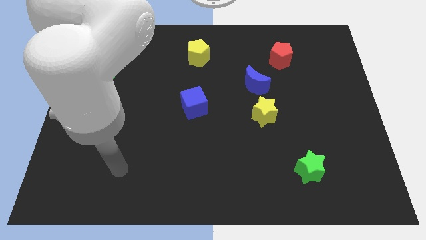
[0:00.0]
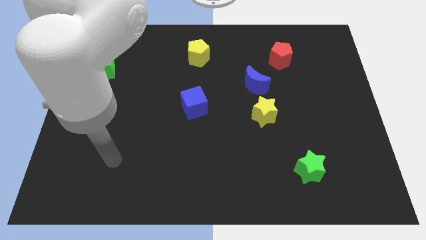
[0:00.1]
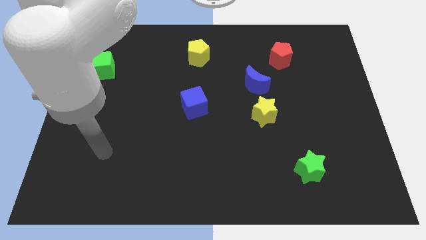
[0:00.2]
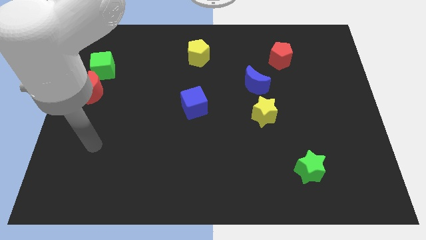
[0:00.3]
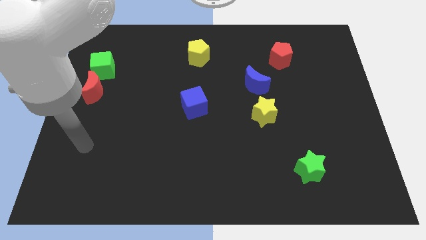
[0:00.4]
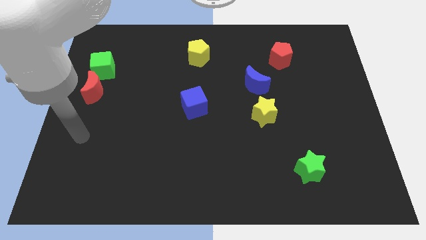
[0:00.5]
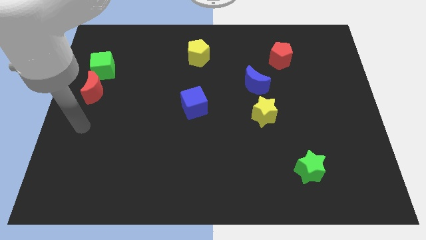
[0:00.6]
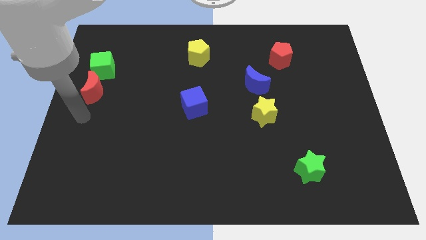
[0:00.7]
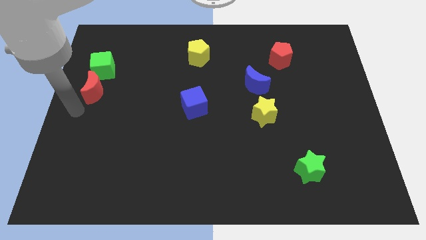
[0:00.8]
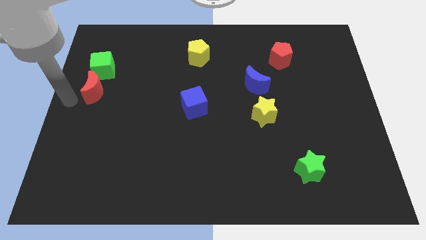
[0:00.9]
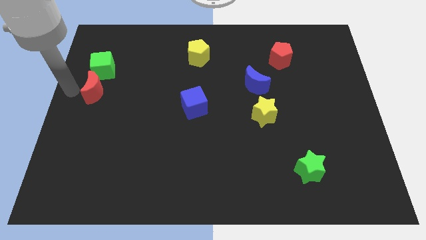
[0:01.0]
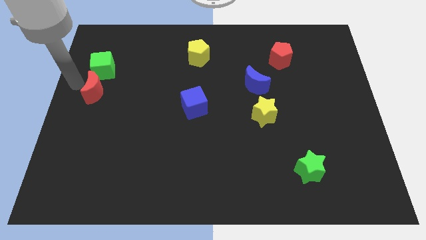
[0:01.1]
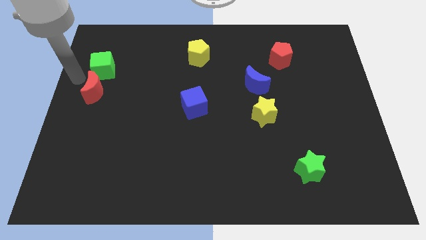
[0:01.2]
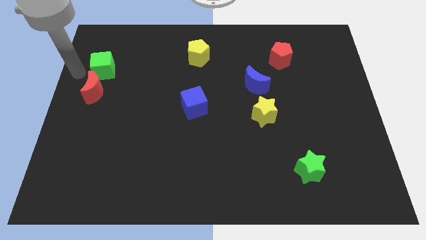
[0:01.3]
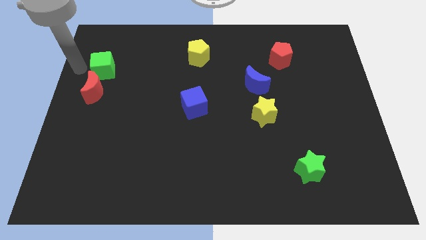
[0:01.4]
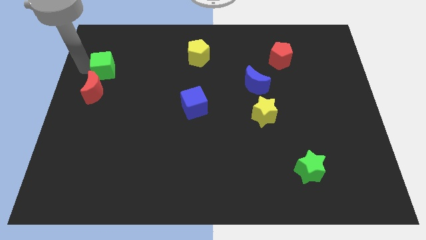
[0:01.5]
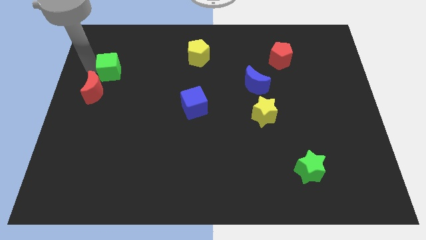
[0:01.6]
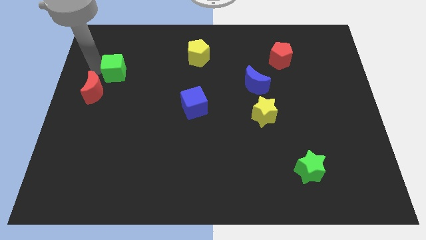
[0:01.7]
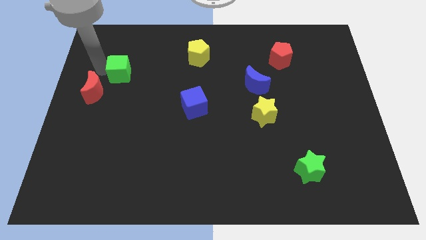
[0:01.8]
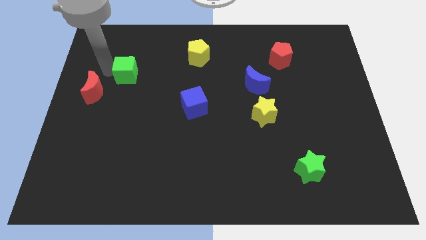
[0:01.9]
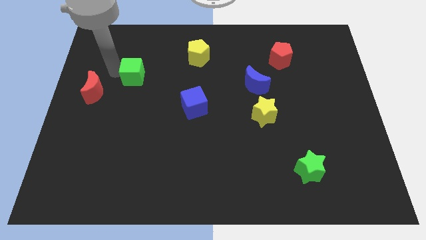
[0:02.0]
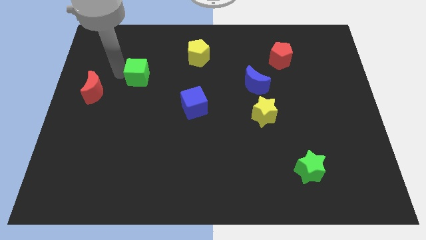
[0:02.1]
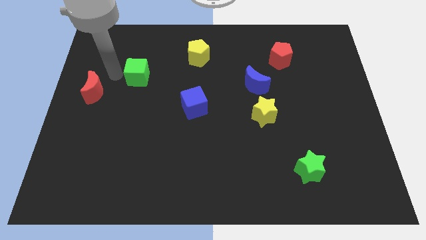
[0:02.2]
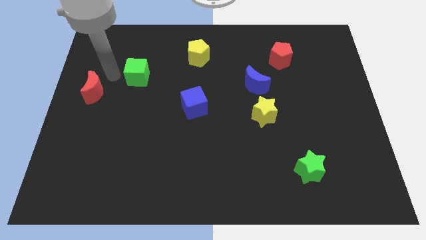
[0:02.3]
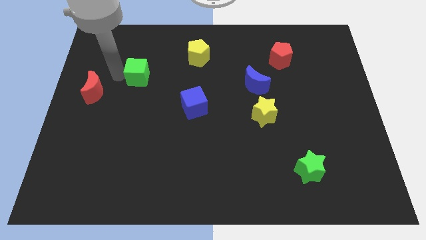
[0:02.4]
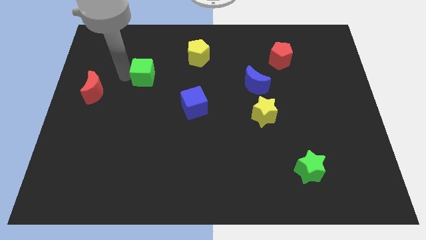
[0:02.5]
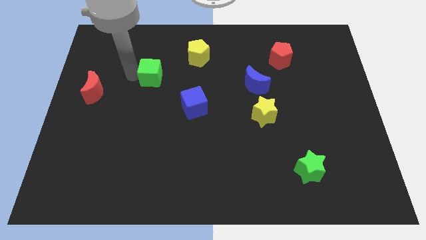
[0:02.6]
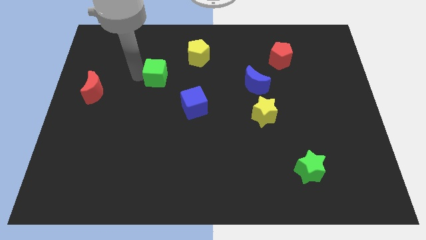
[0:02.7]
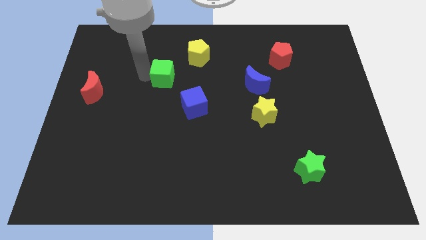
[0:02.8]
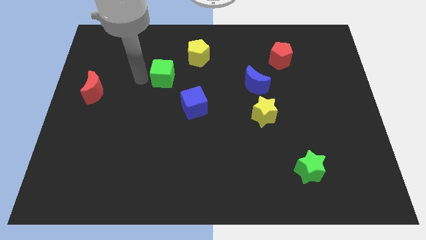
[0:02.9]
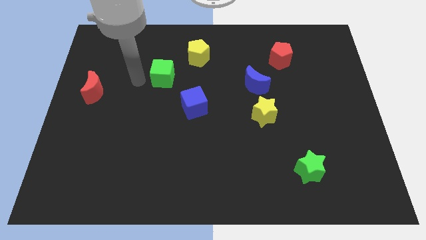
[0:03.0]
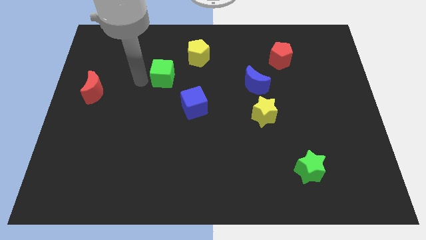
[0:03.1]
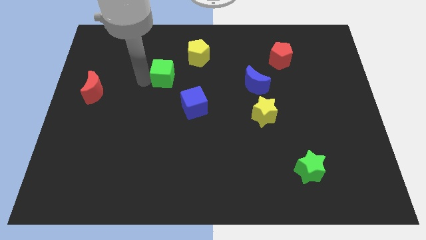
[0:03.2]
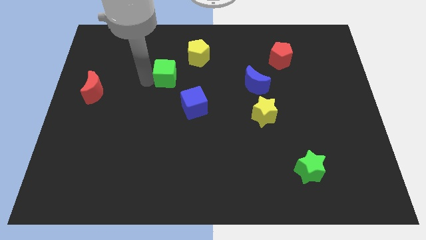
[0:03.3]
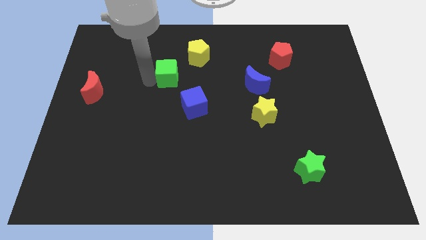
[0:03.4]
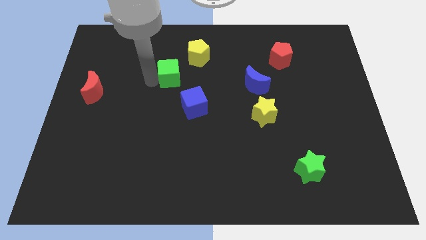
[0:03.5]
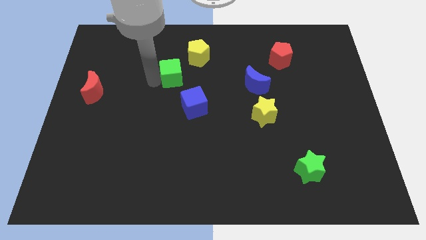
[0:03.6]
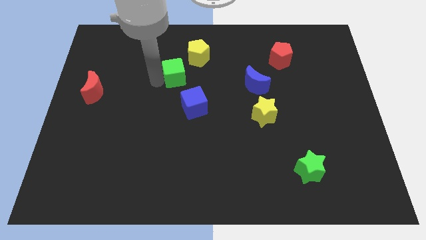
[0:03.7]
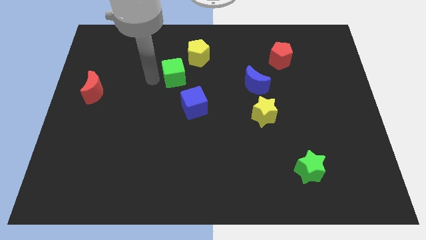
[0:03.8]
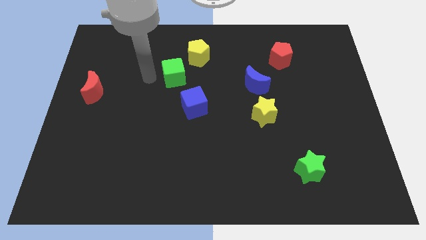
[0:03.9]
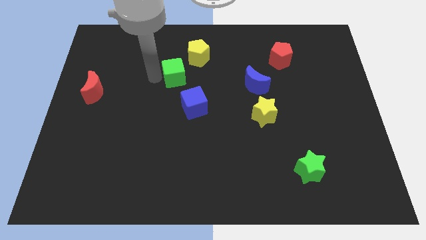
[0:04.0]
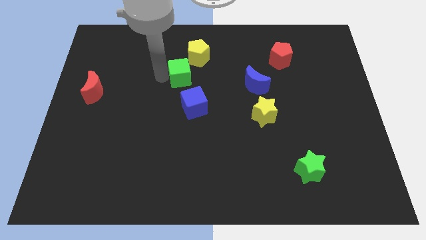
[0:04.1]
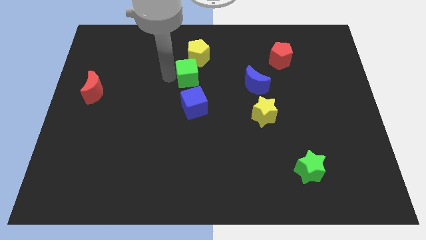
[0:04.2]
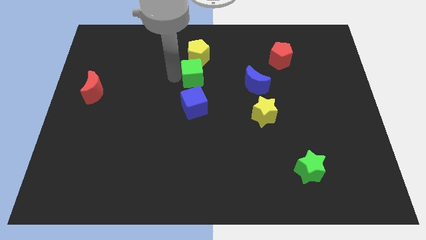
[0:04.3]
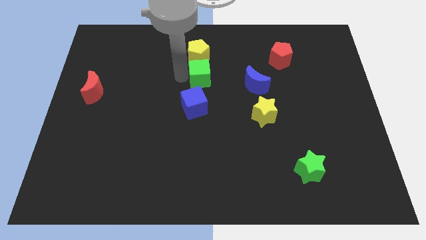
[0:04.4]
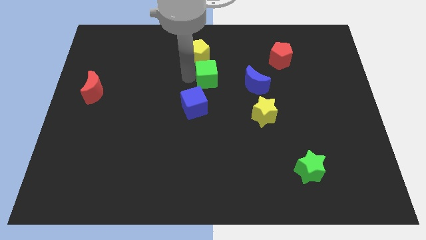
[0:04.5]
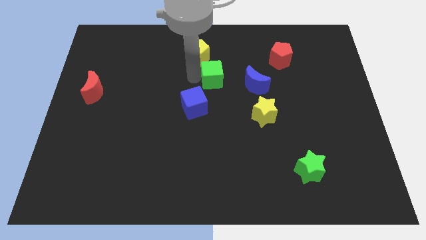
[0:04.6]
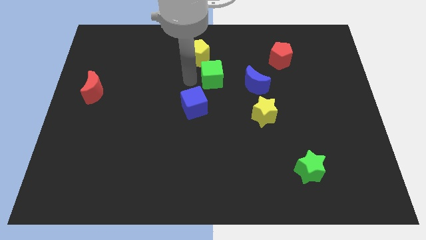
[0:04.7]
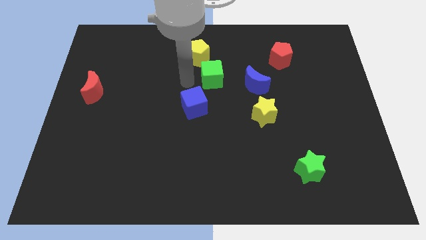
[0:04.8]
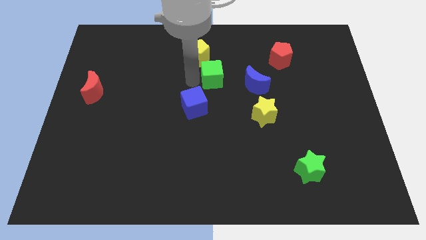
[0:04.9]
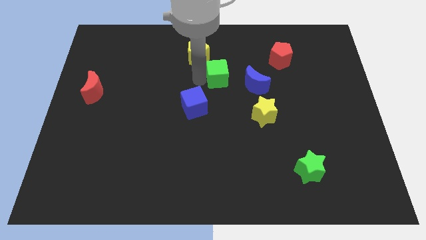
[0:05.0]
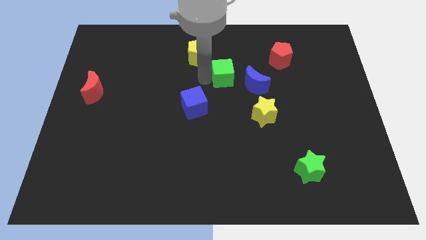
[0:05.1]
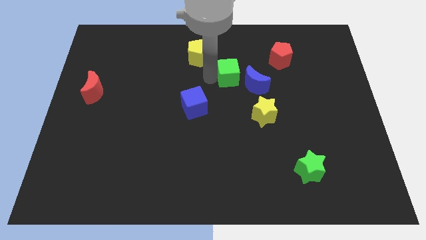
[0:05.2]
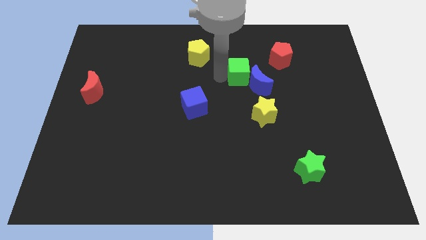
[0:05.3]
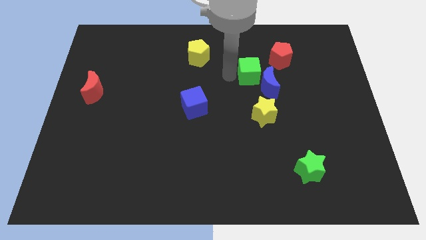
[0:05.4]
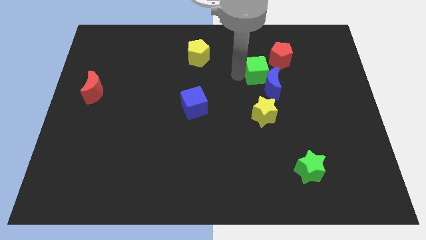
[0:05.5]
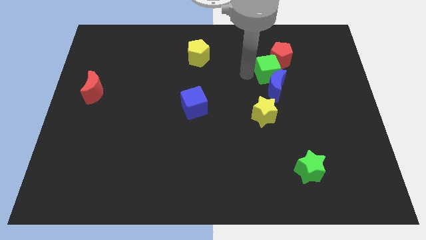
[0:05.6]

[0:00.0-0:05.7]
slide the green cube to the top right side of the blue moon

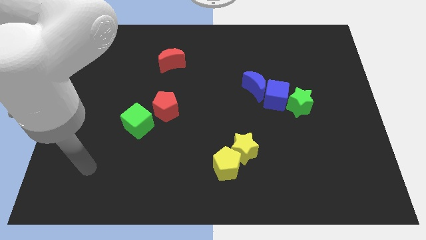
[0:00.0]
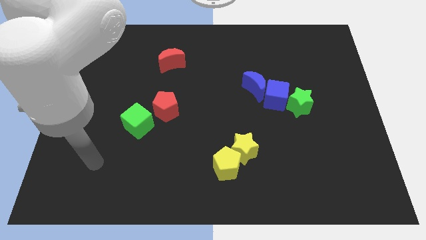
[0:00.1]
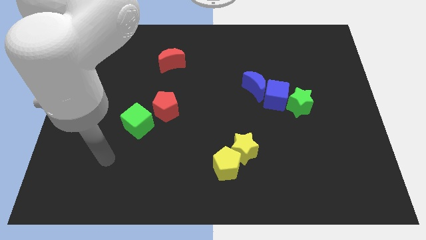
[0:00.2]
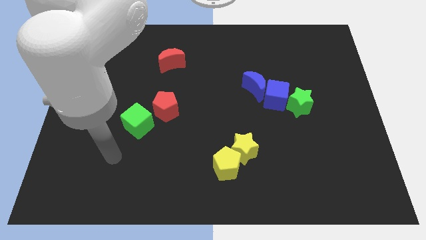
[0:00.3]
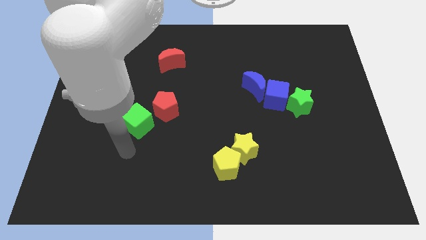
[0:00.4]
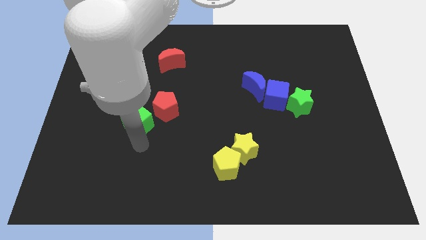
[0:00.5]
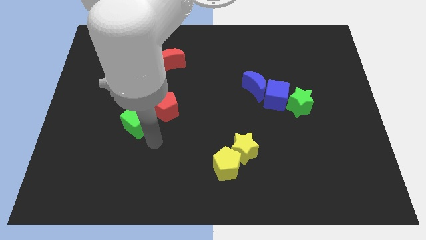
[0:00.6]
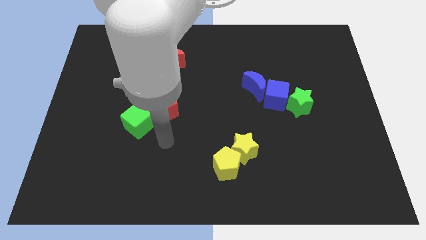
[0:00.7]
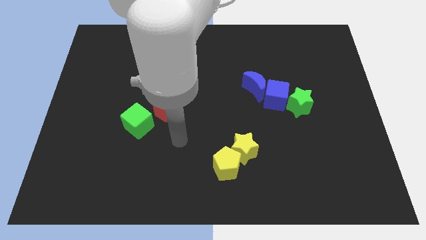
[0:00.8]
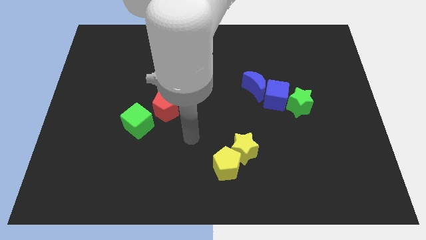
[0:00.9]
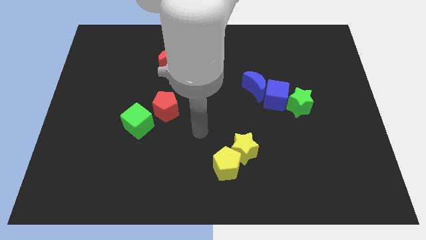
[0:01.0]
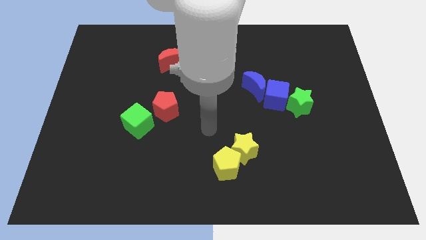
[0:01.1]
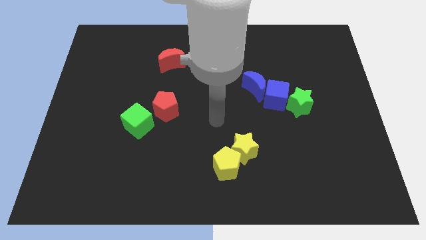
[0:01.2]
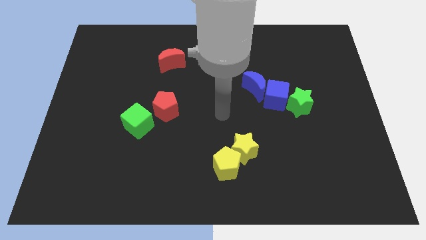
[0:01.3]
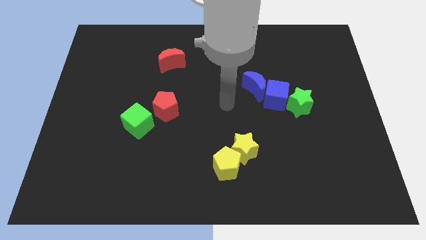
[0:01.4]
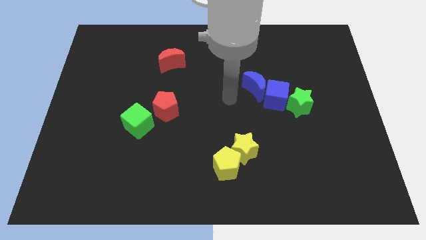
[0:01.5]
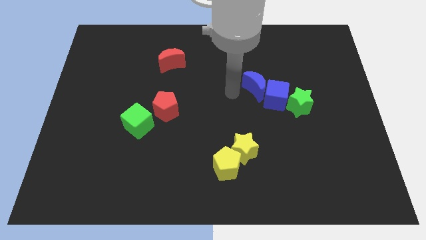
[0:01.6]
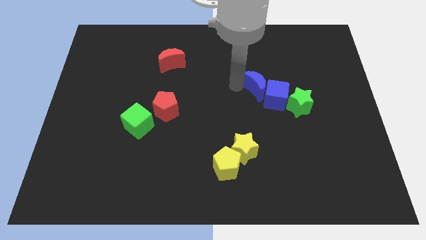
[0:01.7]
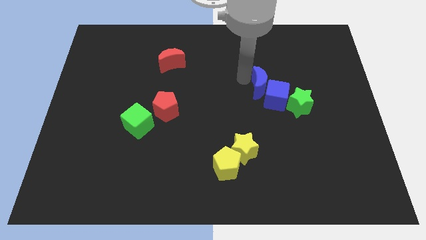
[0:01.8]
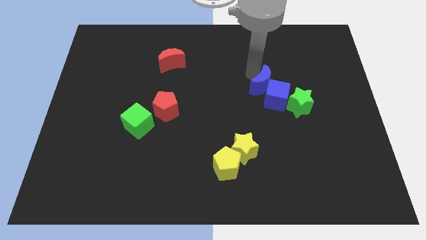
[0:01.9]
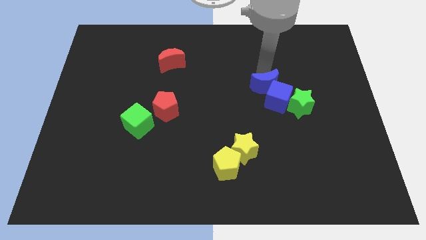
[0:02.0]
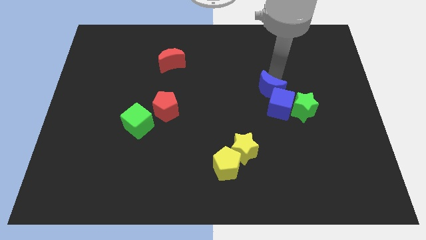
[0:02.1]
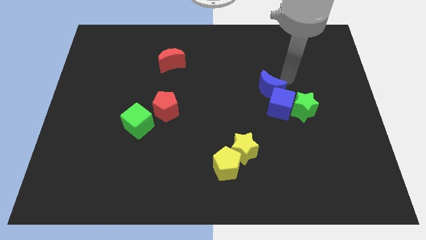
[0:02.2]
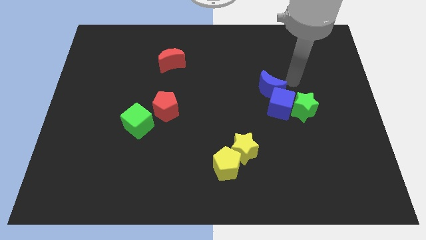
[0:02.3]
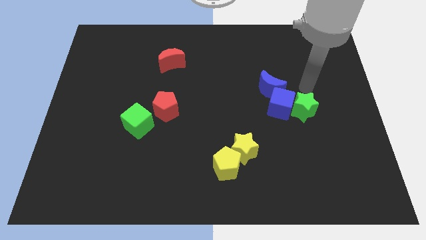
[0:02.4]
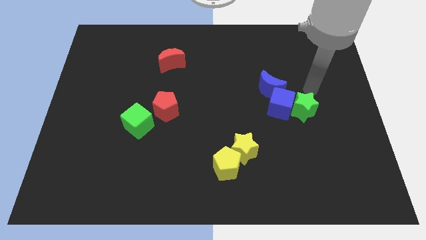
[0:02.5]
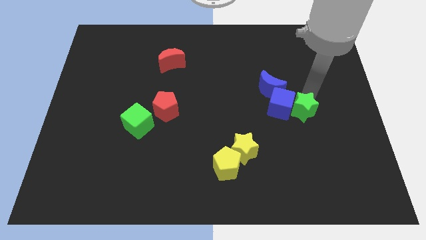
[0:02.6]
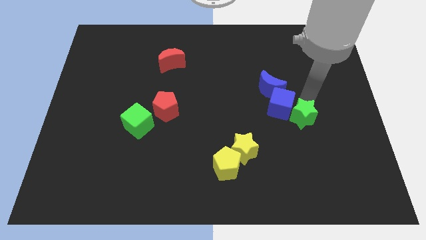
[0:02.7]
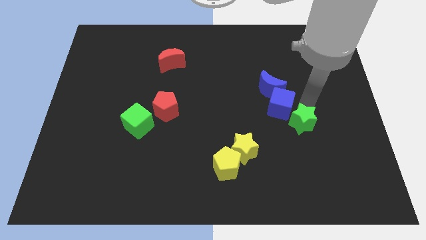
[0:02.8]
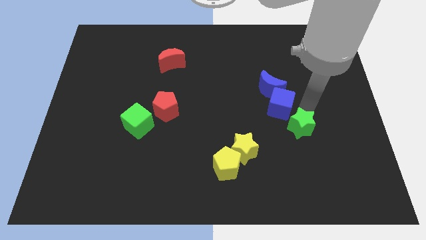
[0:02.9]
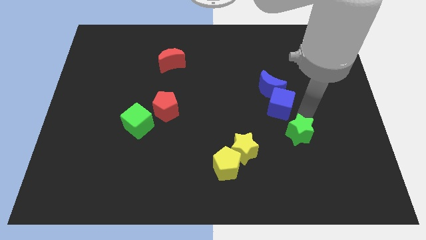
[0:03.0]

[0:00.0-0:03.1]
push the green star to the right side of the yellow star

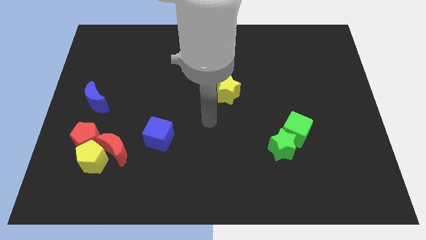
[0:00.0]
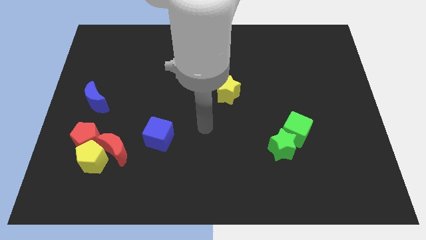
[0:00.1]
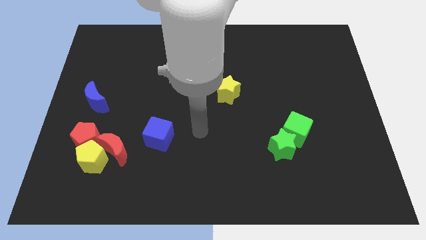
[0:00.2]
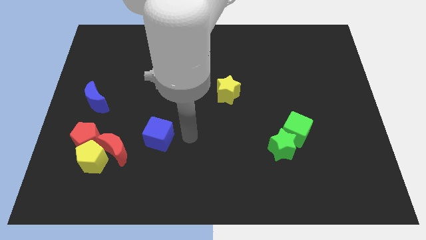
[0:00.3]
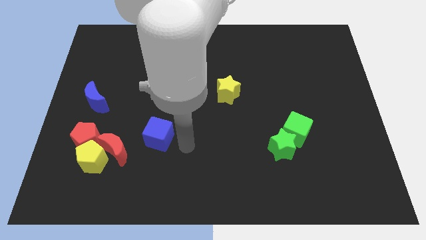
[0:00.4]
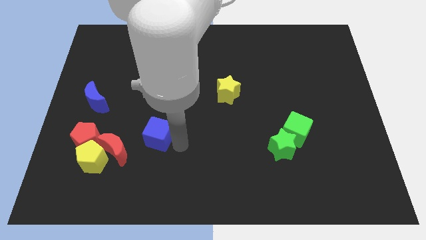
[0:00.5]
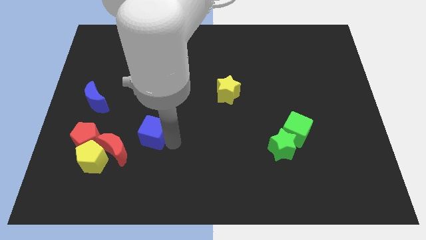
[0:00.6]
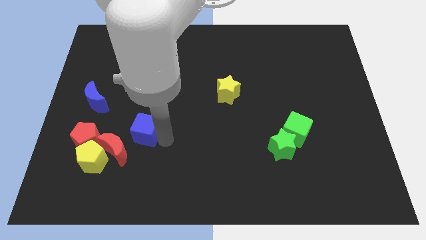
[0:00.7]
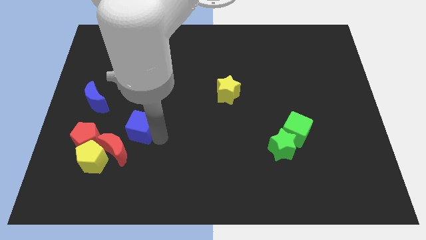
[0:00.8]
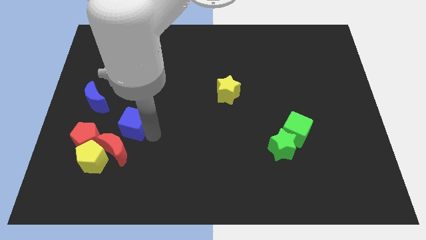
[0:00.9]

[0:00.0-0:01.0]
move the blue cube diagonally up and to the right of the red pentagon
